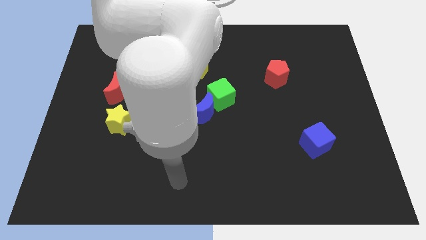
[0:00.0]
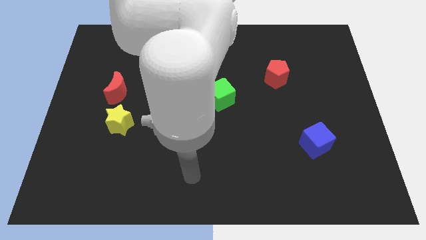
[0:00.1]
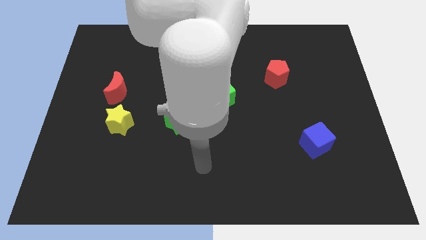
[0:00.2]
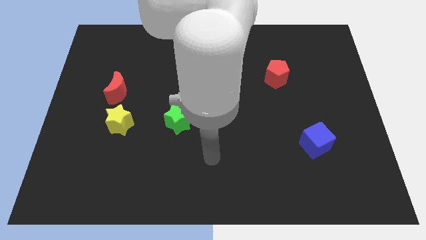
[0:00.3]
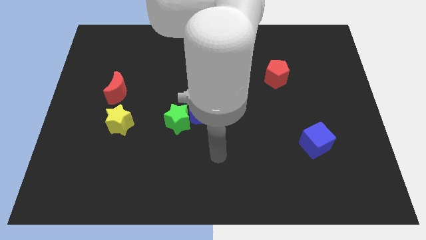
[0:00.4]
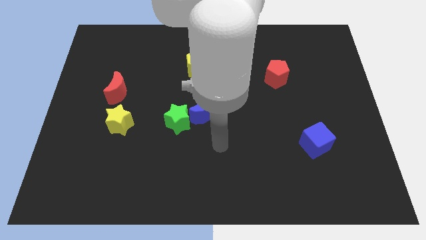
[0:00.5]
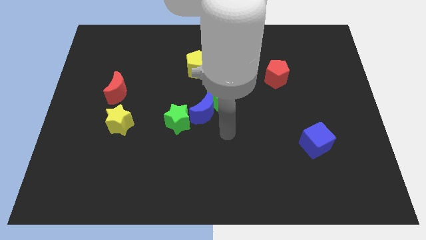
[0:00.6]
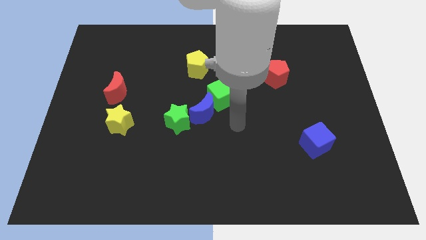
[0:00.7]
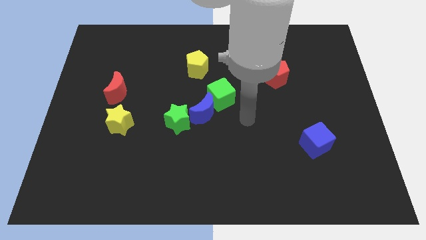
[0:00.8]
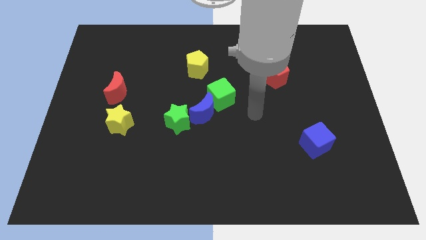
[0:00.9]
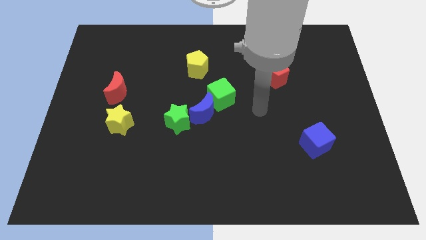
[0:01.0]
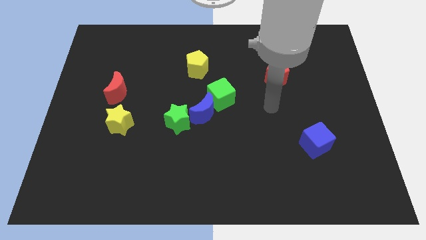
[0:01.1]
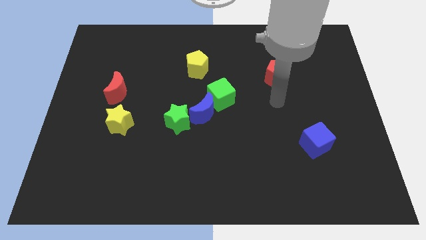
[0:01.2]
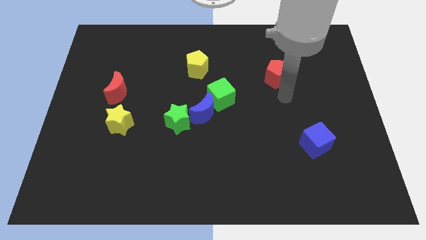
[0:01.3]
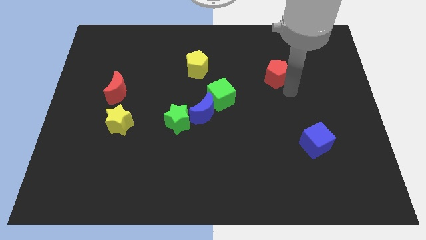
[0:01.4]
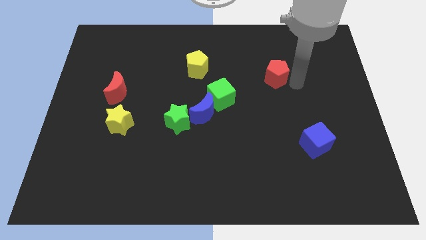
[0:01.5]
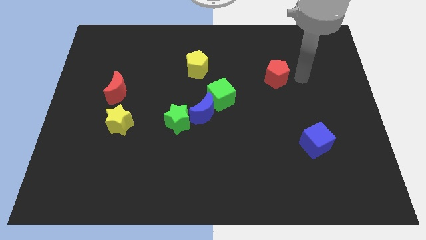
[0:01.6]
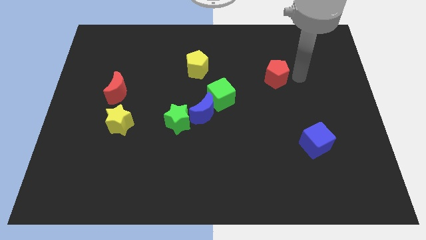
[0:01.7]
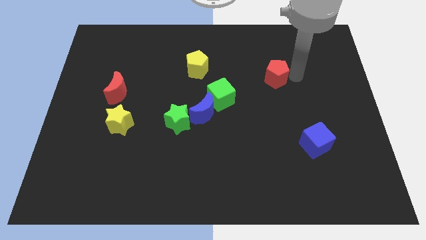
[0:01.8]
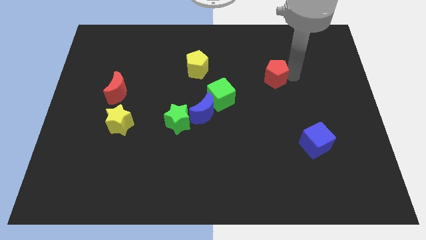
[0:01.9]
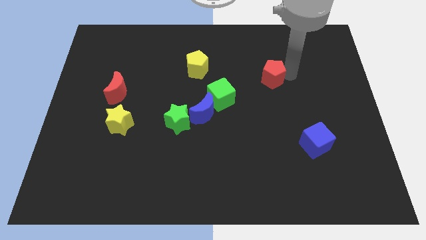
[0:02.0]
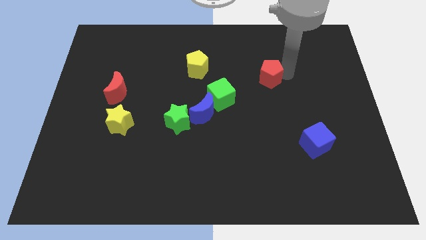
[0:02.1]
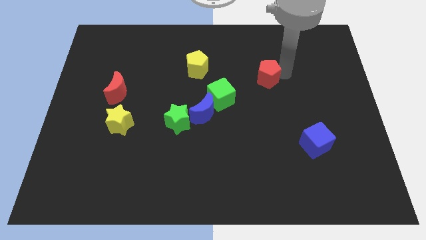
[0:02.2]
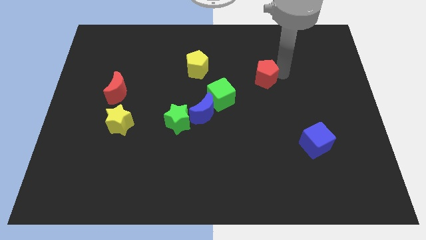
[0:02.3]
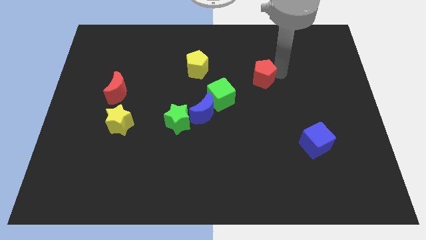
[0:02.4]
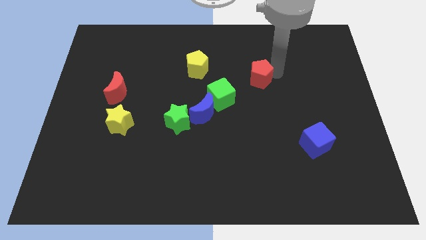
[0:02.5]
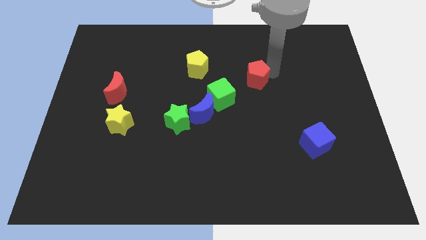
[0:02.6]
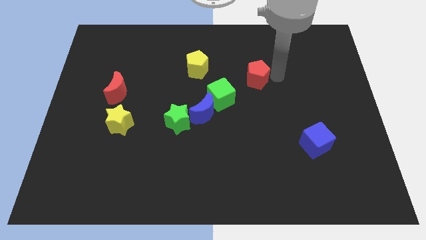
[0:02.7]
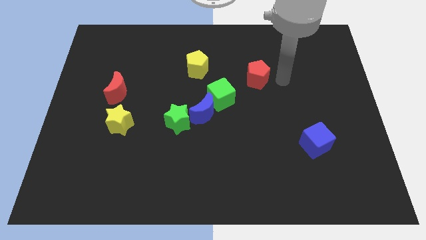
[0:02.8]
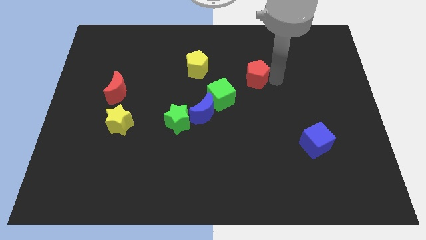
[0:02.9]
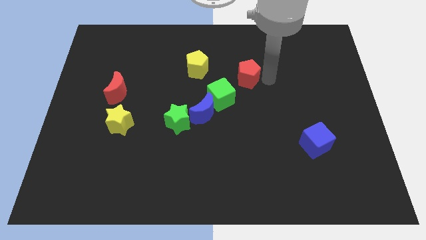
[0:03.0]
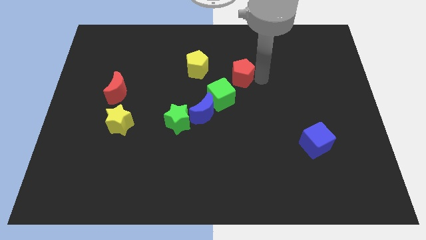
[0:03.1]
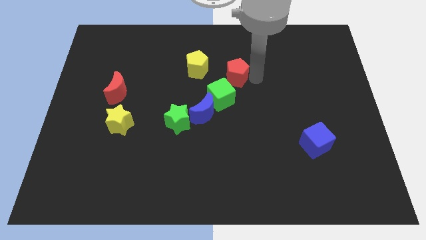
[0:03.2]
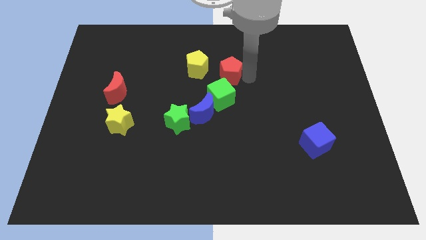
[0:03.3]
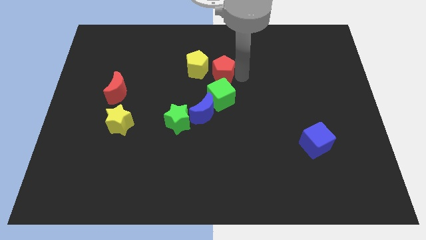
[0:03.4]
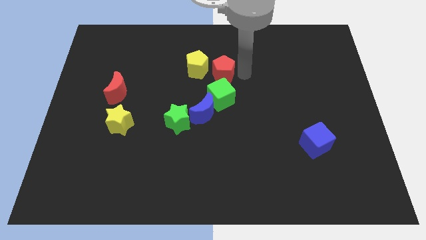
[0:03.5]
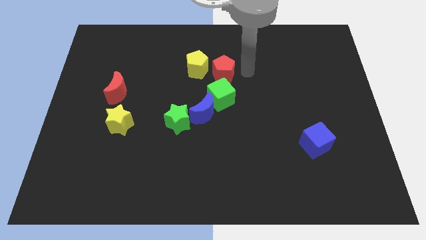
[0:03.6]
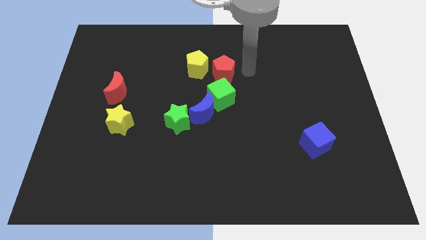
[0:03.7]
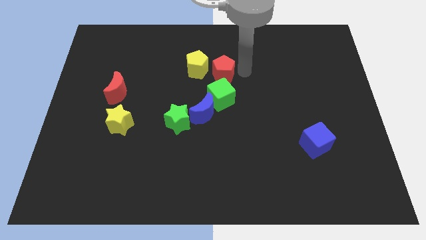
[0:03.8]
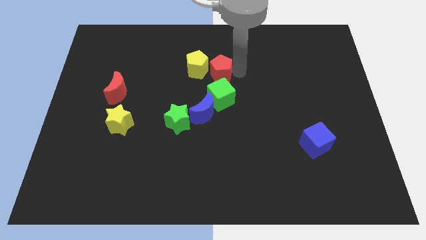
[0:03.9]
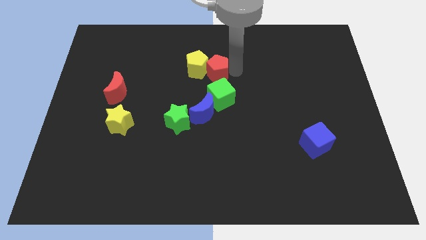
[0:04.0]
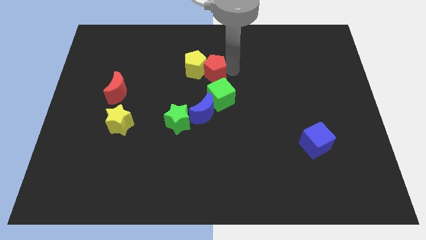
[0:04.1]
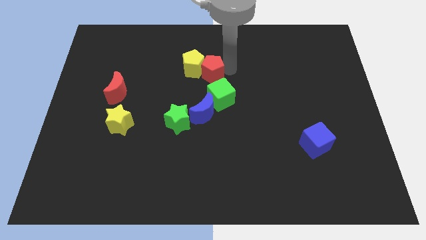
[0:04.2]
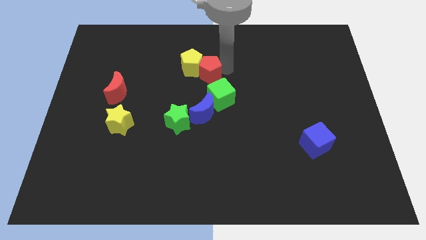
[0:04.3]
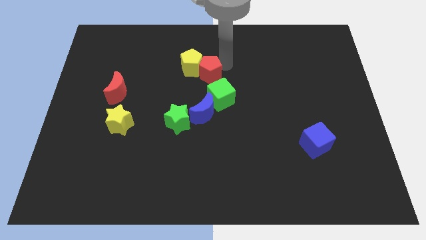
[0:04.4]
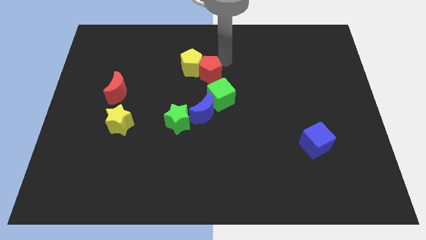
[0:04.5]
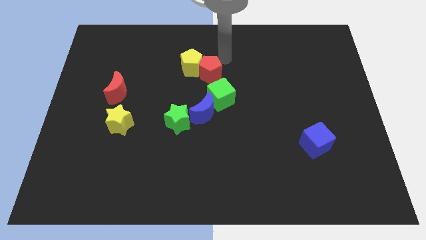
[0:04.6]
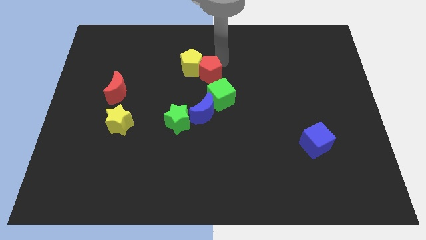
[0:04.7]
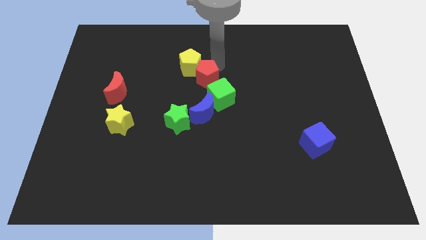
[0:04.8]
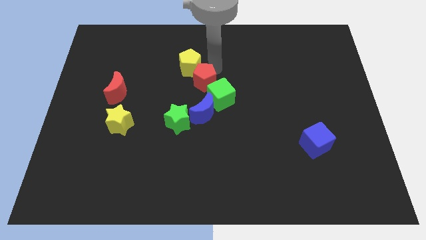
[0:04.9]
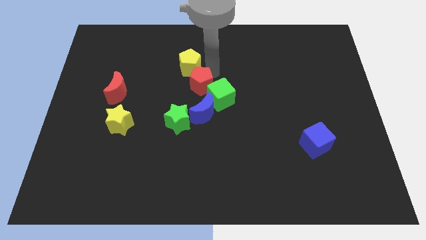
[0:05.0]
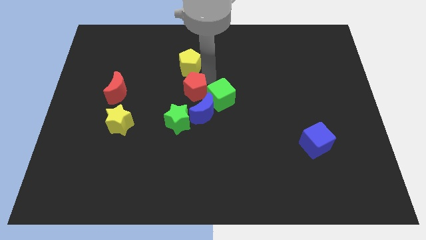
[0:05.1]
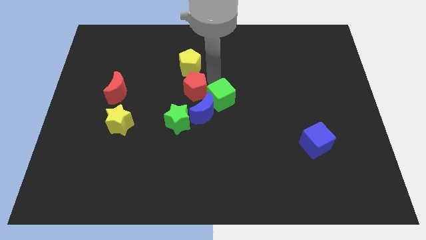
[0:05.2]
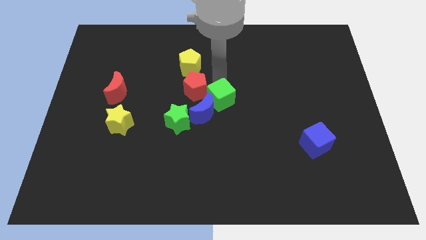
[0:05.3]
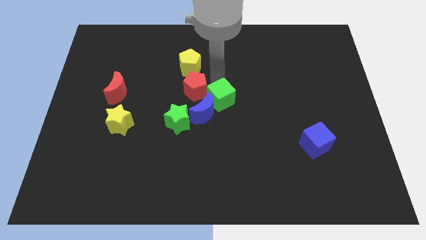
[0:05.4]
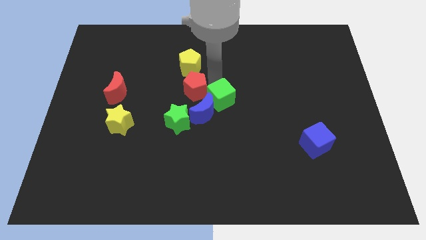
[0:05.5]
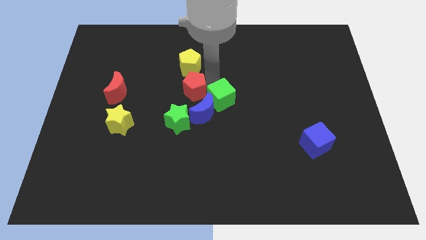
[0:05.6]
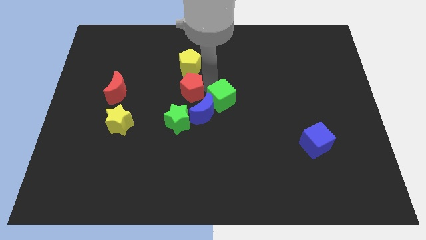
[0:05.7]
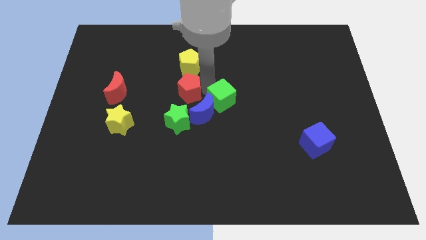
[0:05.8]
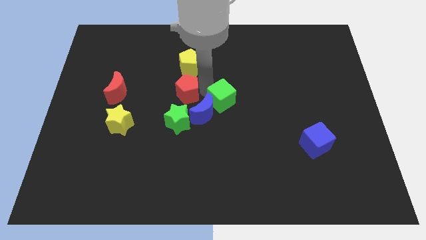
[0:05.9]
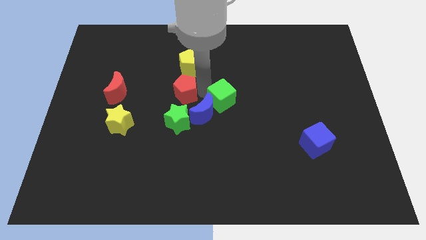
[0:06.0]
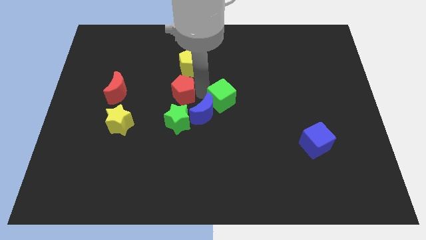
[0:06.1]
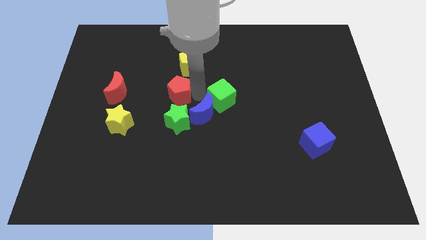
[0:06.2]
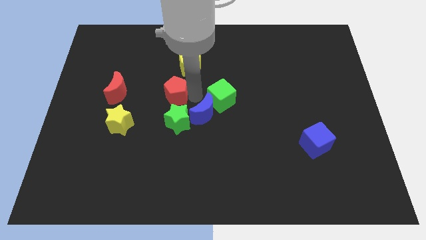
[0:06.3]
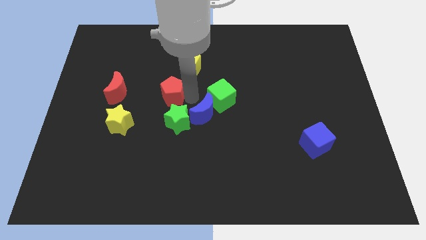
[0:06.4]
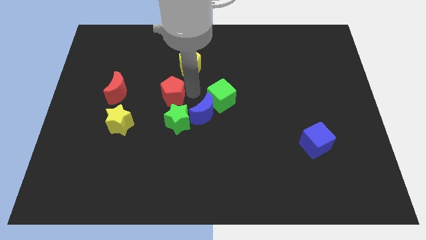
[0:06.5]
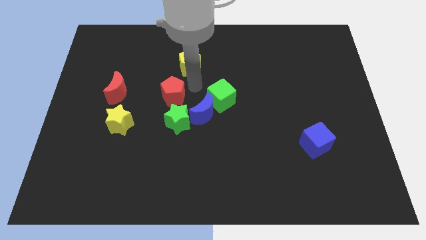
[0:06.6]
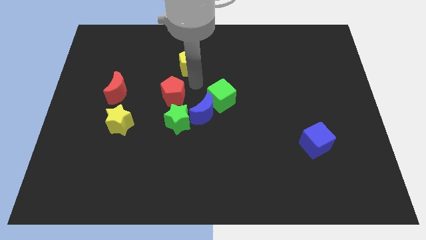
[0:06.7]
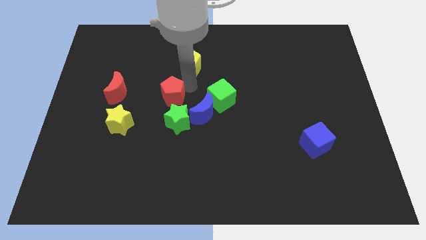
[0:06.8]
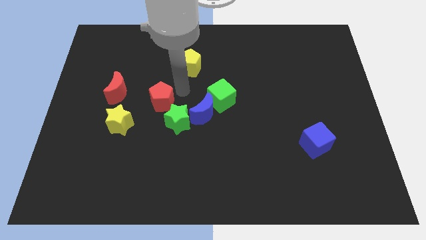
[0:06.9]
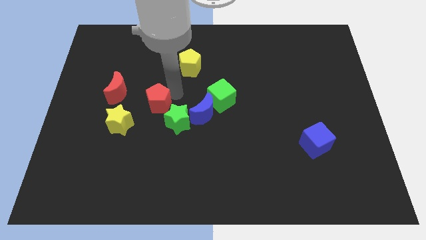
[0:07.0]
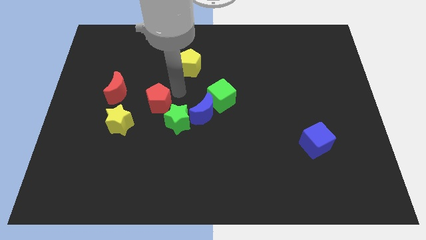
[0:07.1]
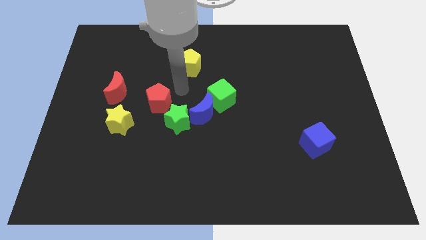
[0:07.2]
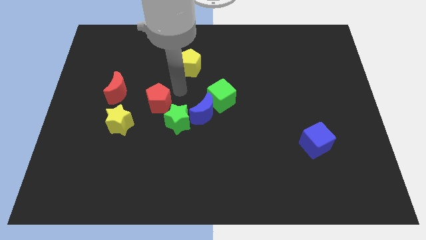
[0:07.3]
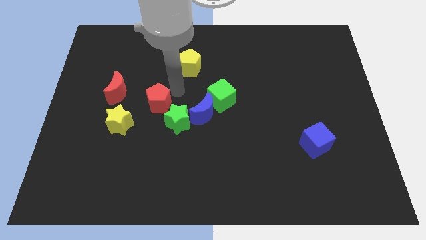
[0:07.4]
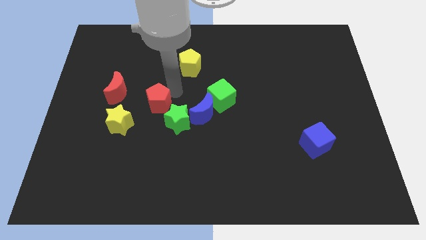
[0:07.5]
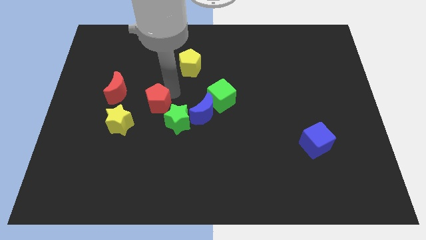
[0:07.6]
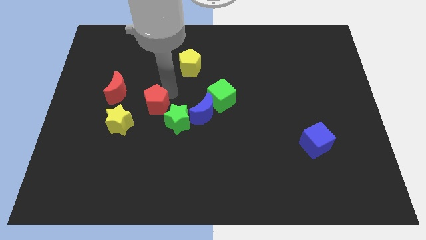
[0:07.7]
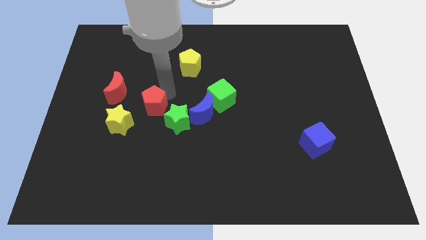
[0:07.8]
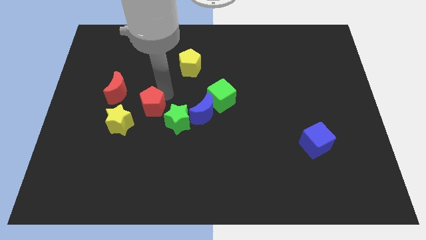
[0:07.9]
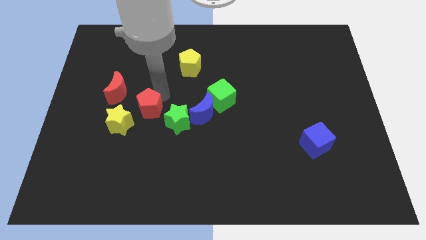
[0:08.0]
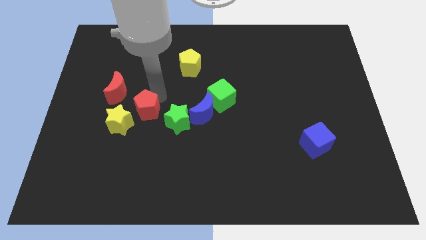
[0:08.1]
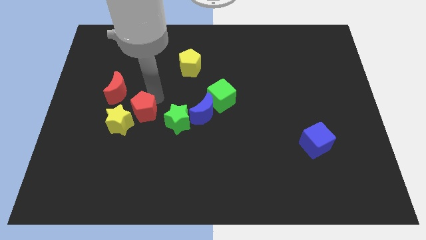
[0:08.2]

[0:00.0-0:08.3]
push the red pentagon to the yellow star
